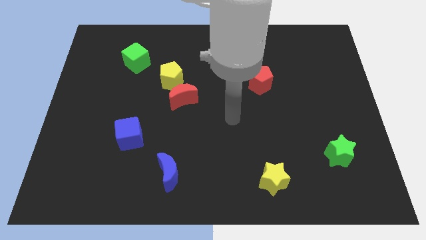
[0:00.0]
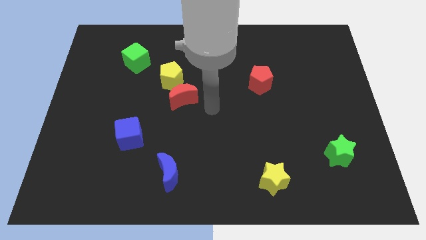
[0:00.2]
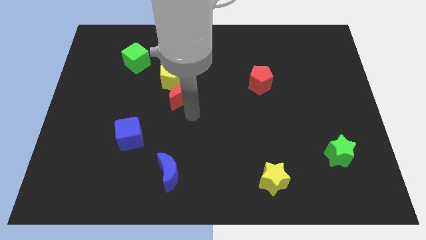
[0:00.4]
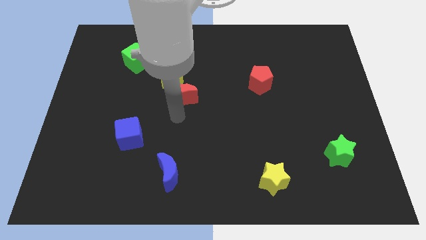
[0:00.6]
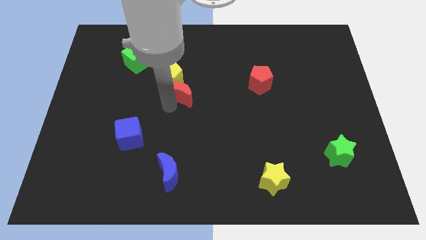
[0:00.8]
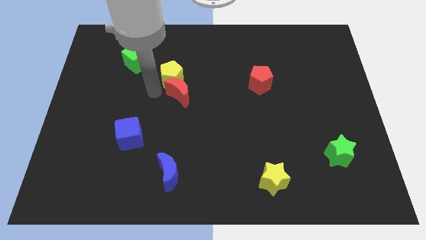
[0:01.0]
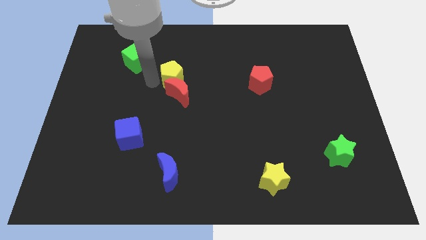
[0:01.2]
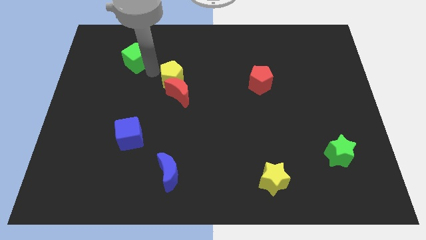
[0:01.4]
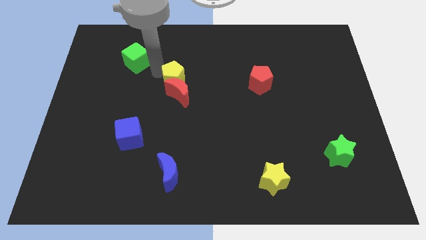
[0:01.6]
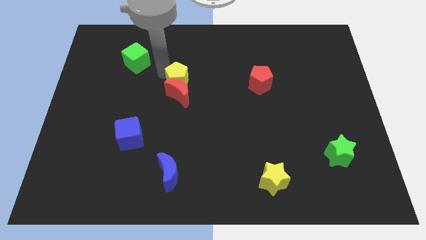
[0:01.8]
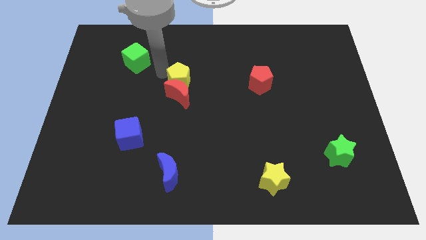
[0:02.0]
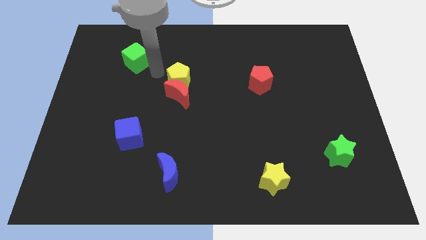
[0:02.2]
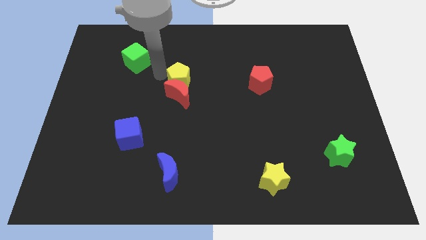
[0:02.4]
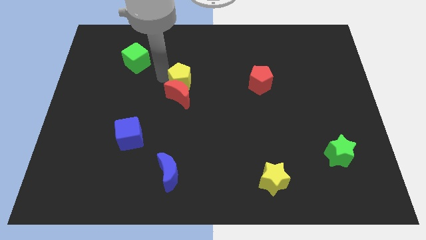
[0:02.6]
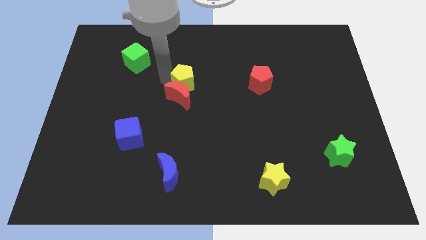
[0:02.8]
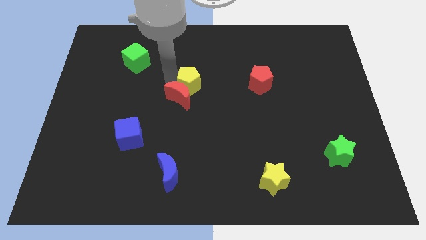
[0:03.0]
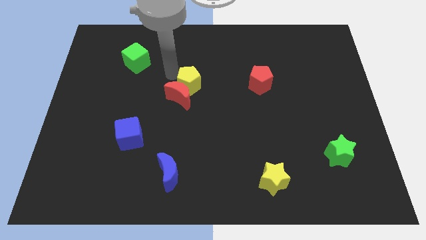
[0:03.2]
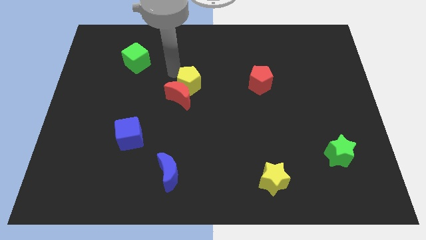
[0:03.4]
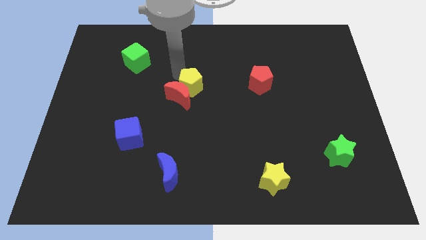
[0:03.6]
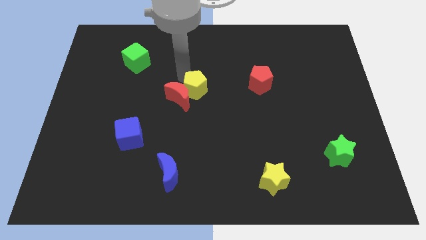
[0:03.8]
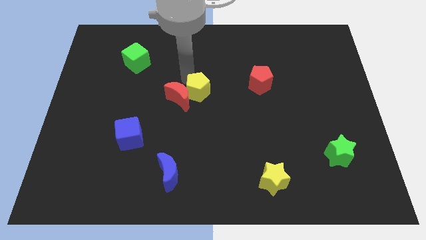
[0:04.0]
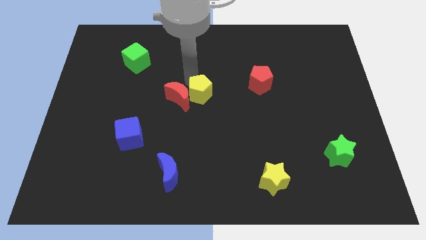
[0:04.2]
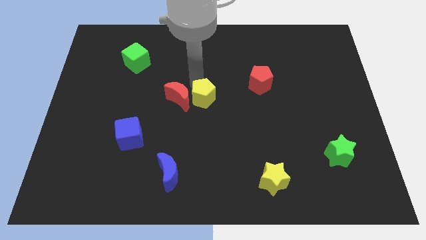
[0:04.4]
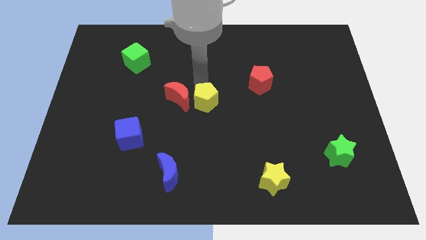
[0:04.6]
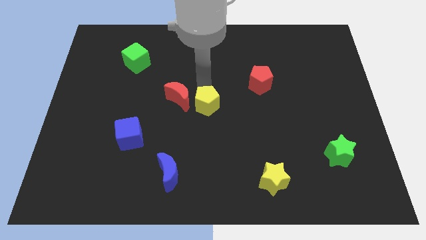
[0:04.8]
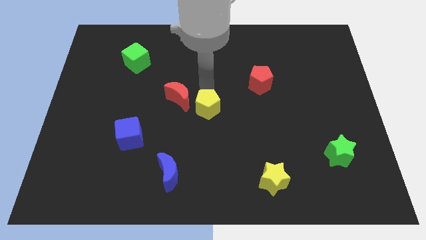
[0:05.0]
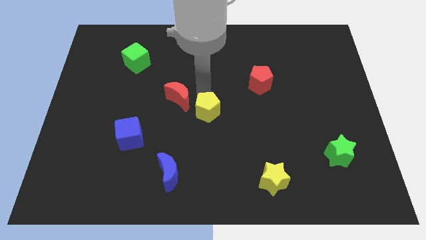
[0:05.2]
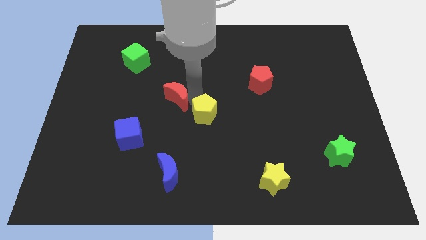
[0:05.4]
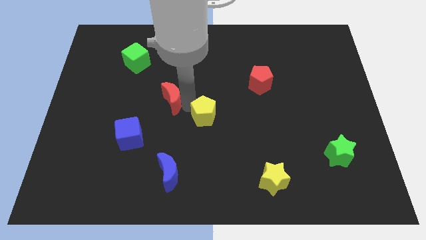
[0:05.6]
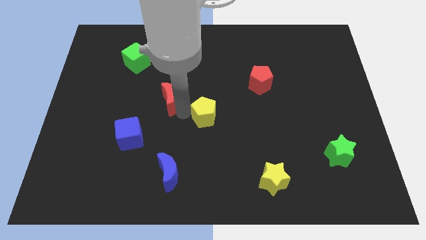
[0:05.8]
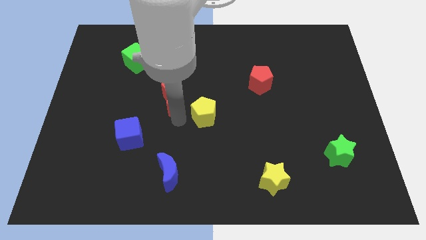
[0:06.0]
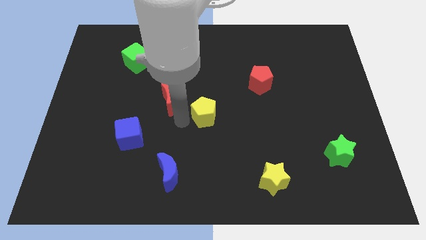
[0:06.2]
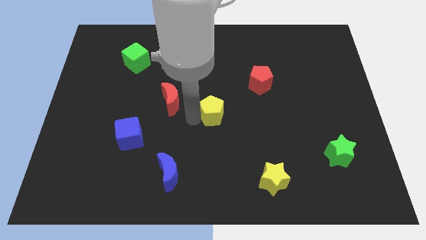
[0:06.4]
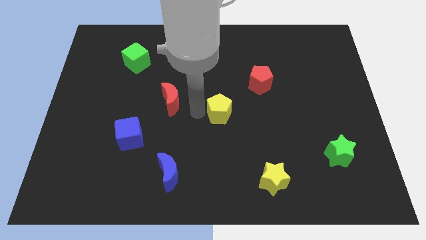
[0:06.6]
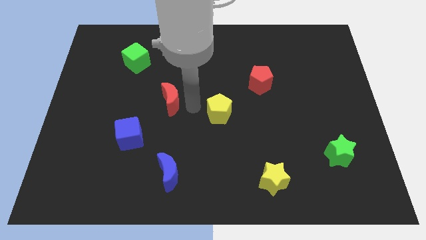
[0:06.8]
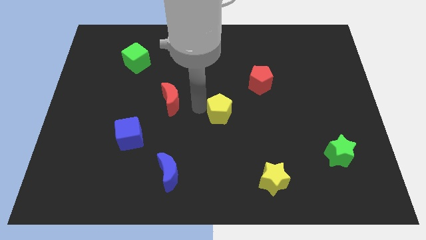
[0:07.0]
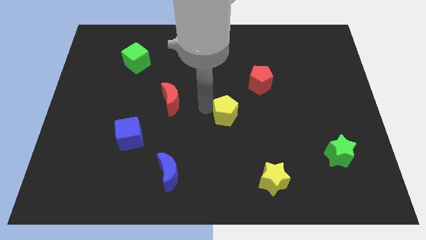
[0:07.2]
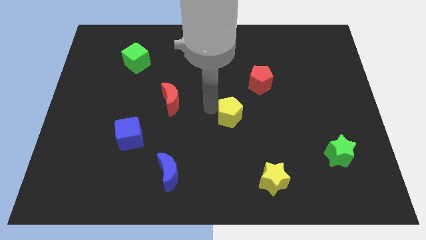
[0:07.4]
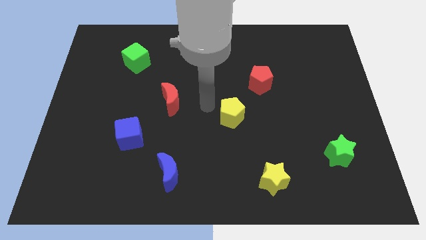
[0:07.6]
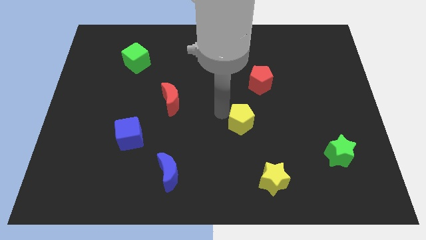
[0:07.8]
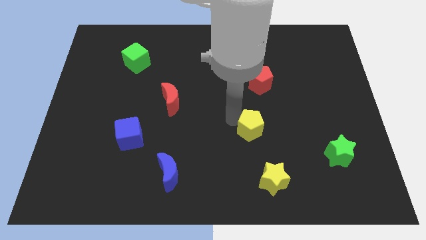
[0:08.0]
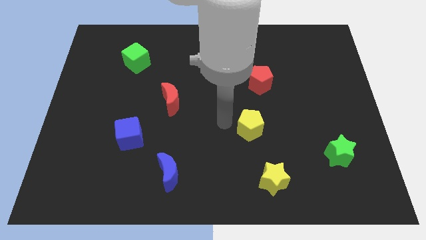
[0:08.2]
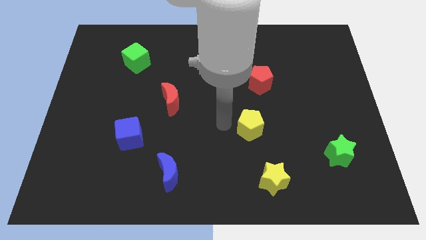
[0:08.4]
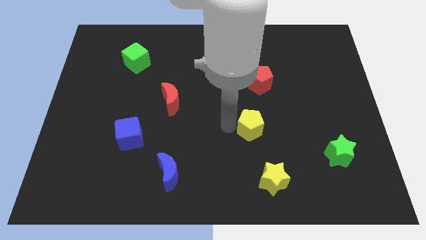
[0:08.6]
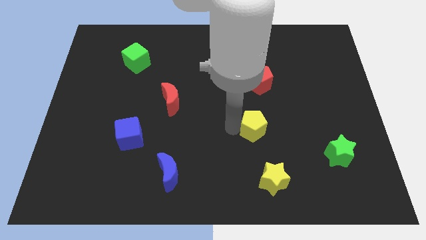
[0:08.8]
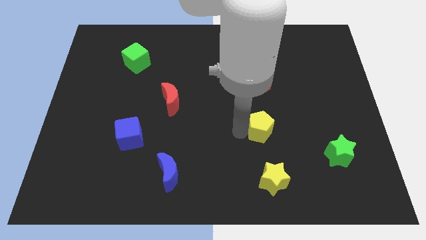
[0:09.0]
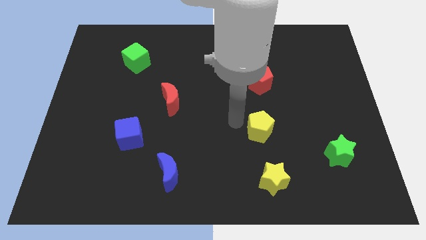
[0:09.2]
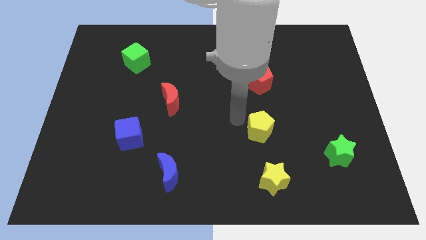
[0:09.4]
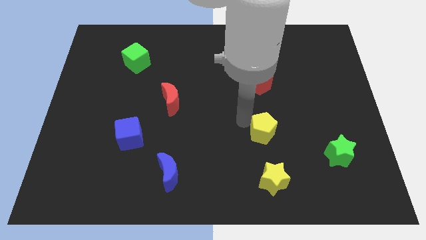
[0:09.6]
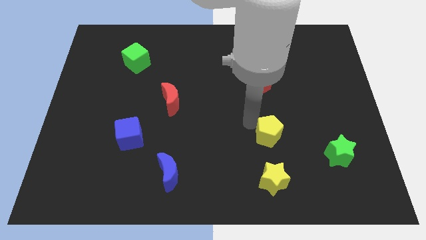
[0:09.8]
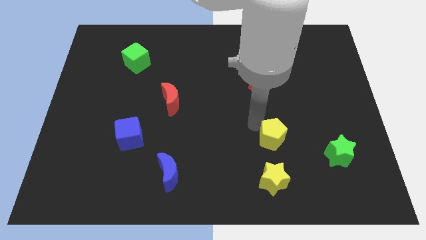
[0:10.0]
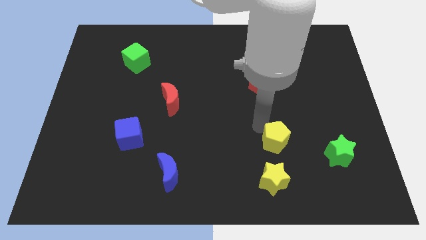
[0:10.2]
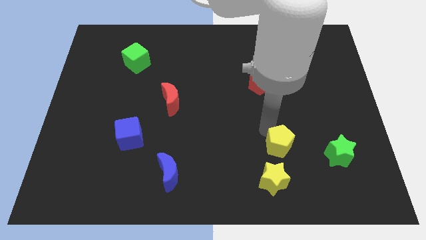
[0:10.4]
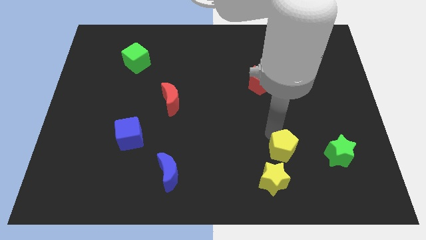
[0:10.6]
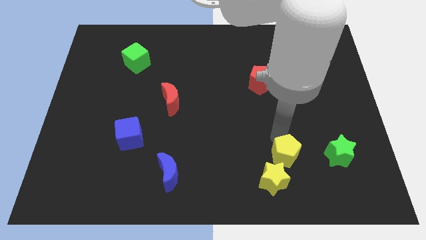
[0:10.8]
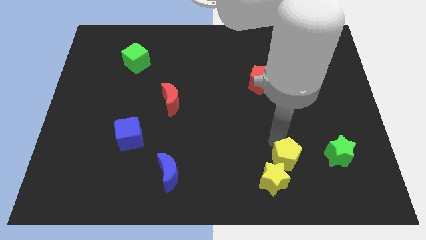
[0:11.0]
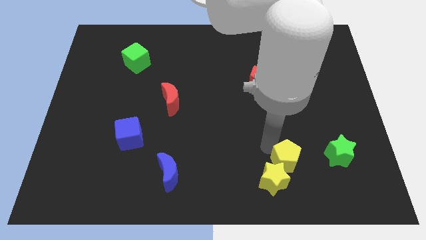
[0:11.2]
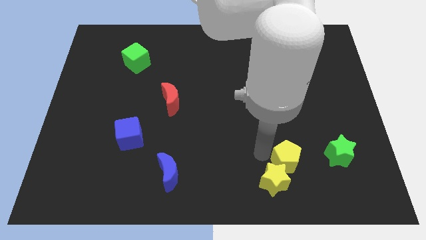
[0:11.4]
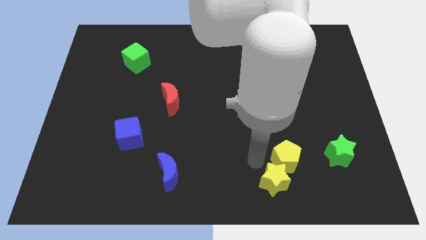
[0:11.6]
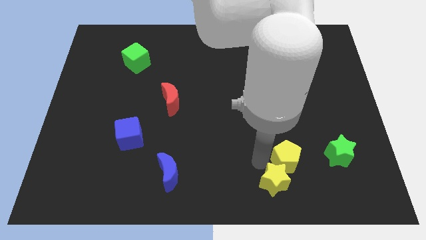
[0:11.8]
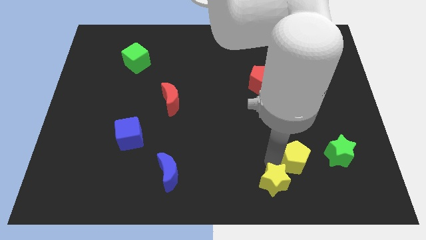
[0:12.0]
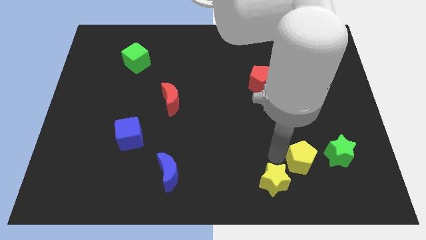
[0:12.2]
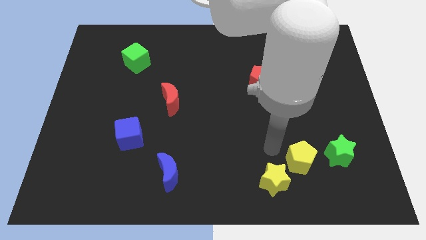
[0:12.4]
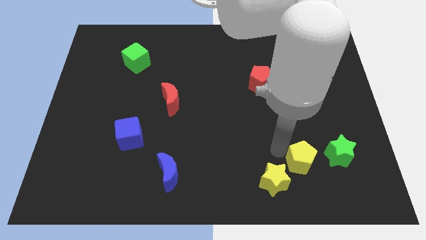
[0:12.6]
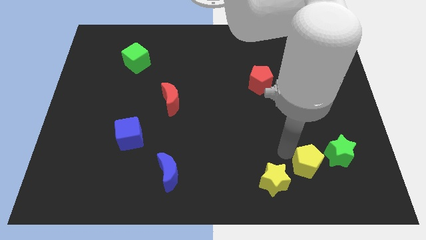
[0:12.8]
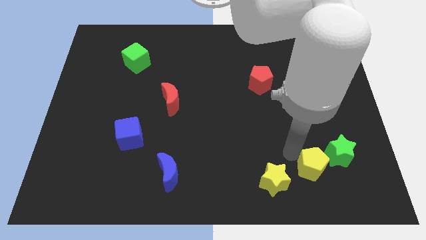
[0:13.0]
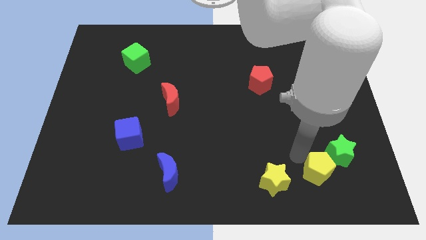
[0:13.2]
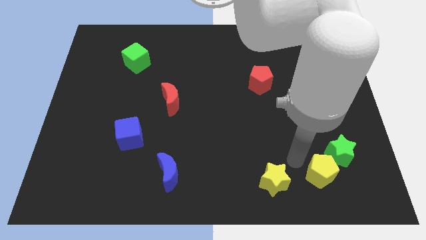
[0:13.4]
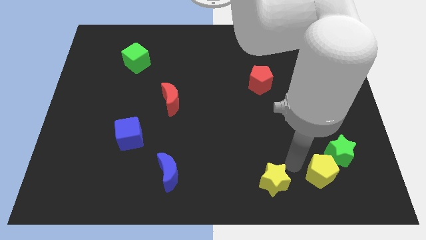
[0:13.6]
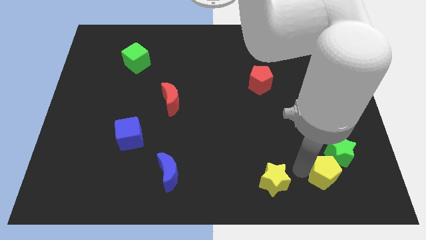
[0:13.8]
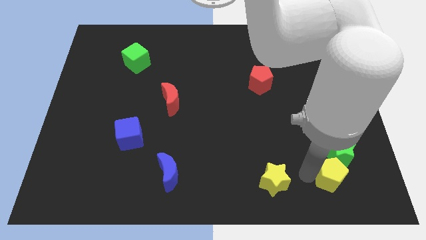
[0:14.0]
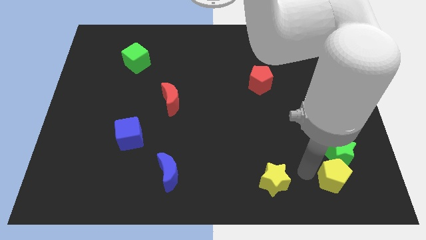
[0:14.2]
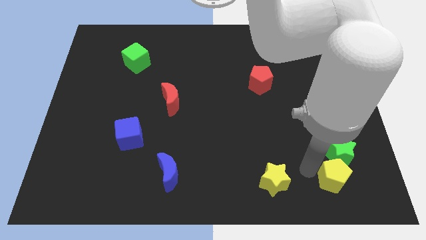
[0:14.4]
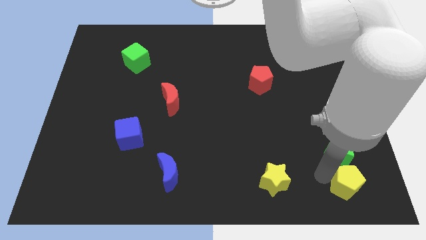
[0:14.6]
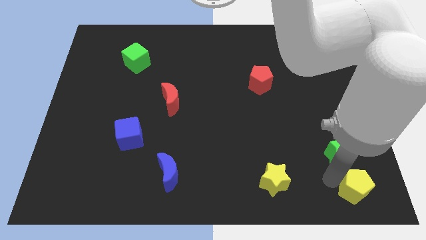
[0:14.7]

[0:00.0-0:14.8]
put the yellow pentagon to the lower right corner
